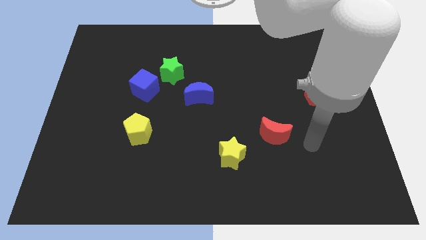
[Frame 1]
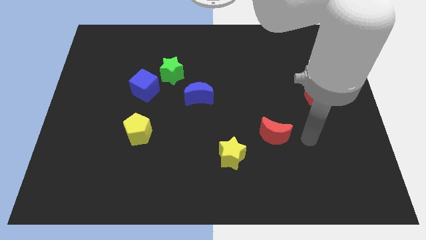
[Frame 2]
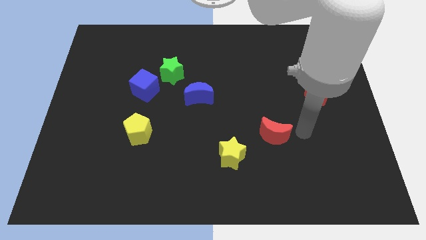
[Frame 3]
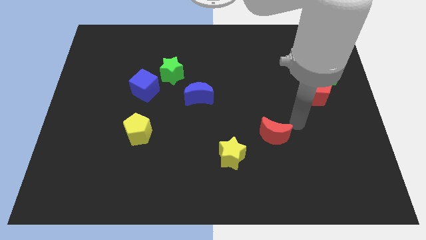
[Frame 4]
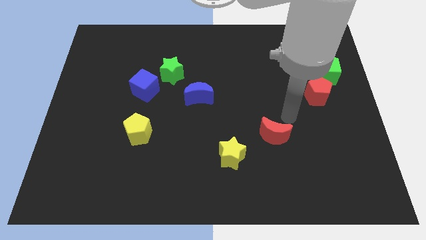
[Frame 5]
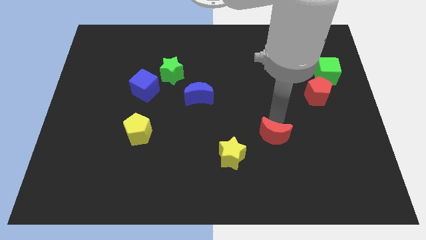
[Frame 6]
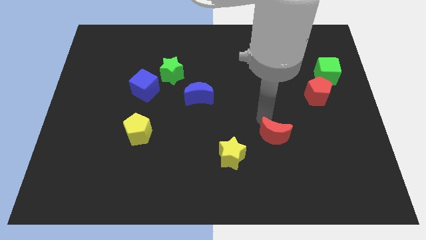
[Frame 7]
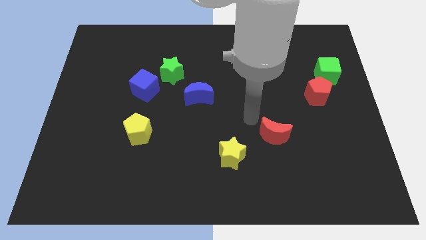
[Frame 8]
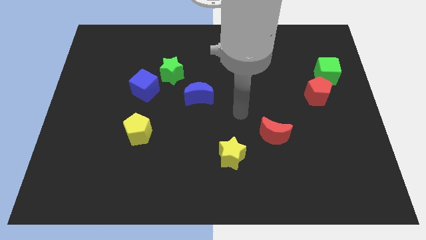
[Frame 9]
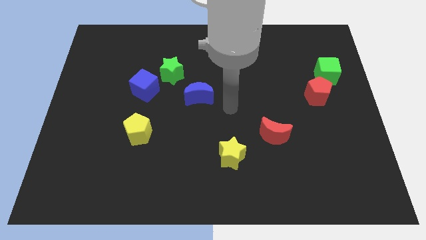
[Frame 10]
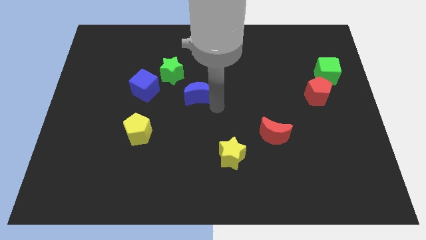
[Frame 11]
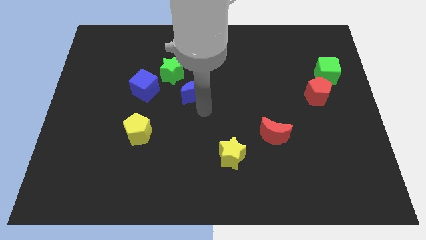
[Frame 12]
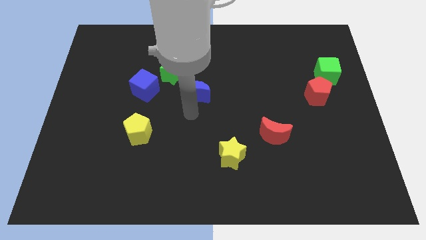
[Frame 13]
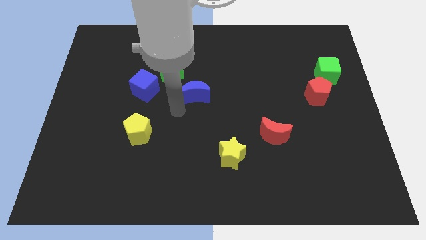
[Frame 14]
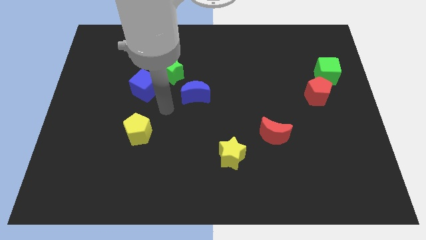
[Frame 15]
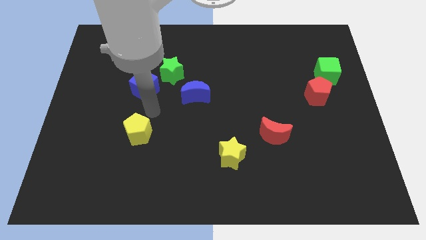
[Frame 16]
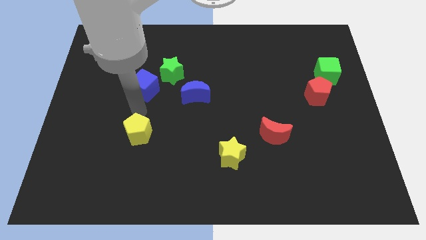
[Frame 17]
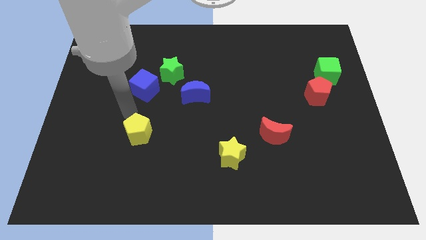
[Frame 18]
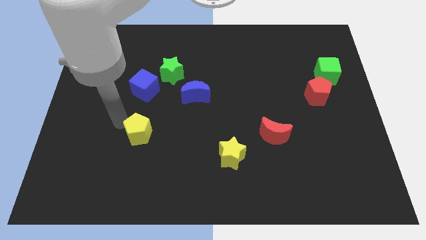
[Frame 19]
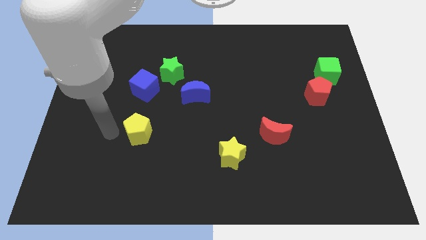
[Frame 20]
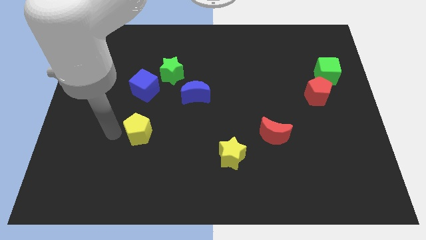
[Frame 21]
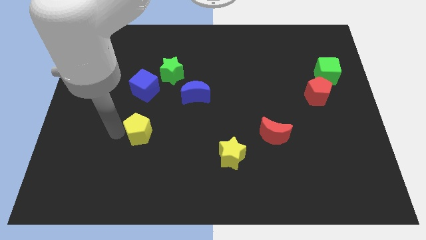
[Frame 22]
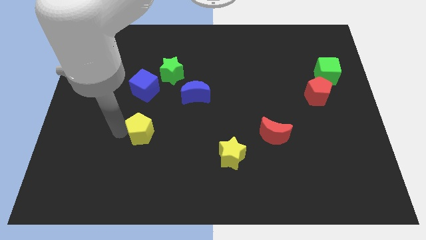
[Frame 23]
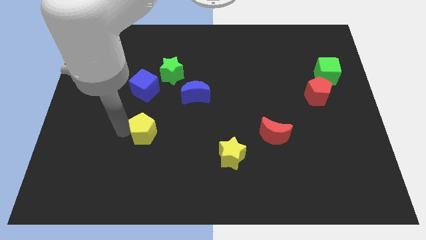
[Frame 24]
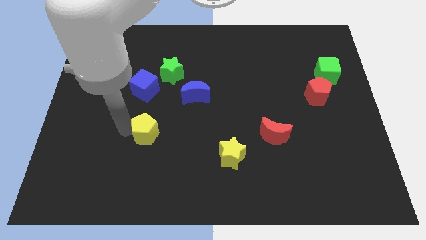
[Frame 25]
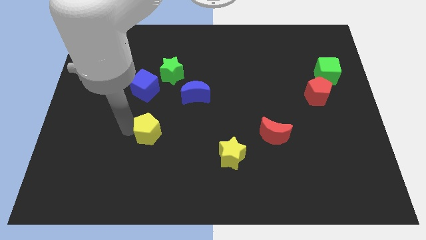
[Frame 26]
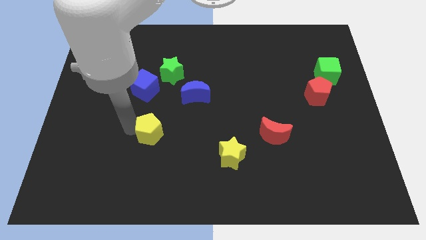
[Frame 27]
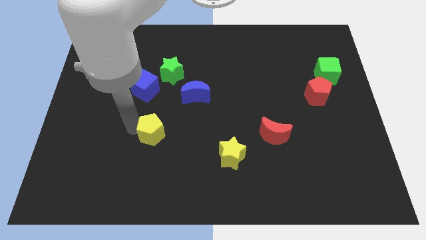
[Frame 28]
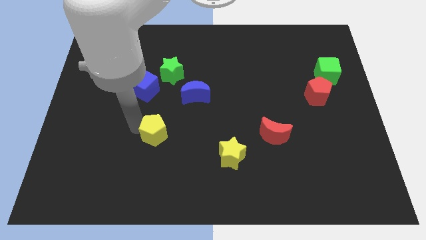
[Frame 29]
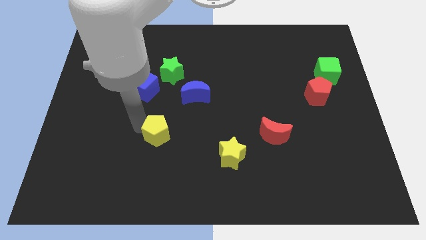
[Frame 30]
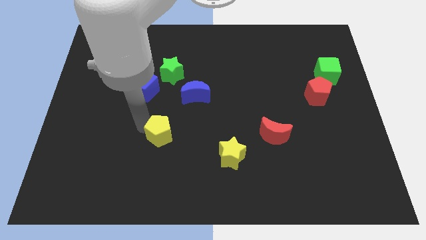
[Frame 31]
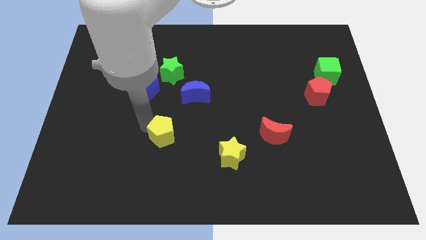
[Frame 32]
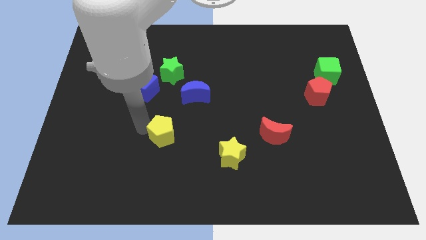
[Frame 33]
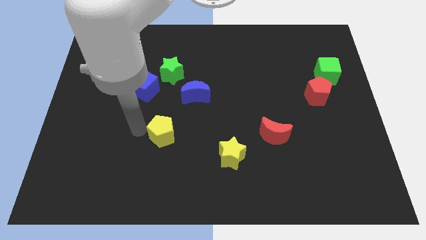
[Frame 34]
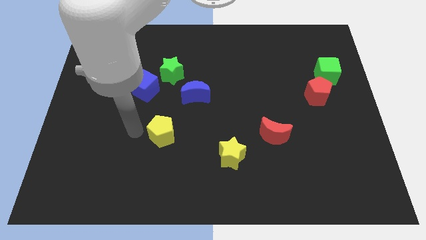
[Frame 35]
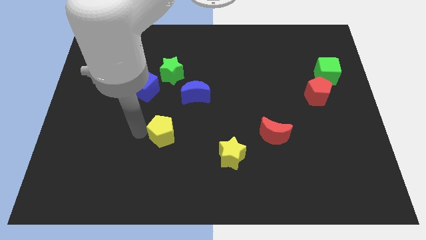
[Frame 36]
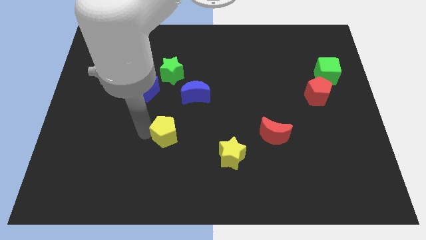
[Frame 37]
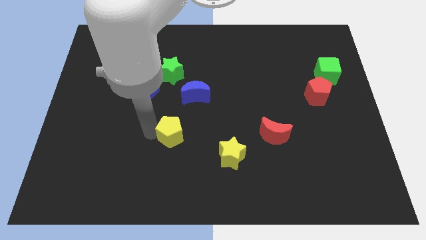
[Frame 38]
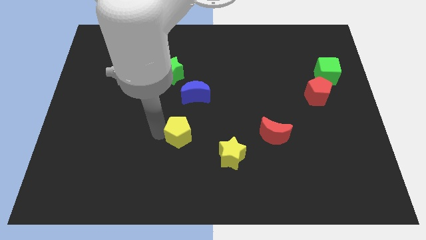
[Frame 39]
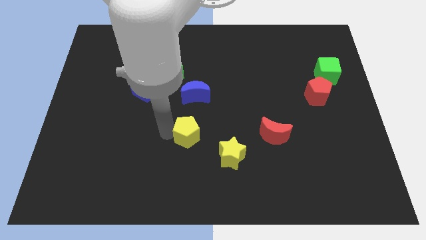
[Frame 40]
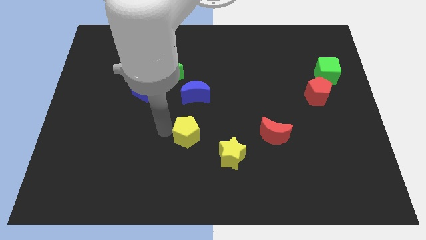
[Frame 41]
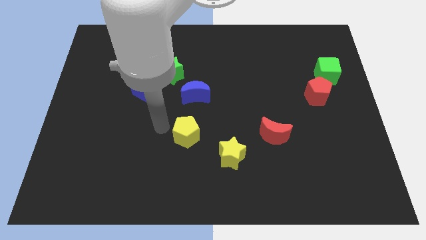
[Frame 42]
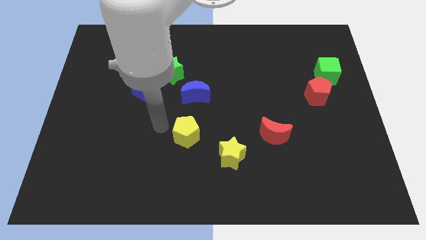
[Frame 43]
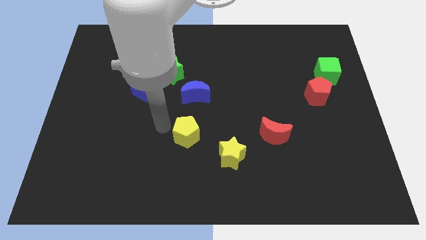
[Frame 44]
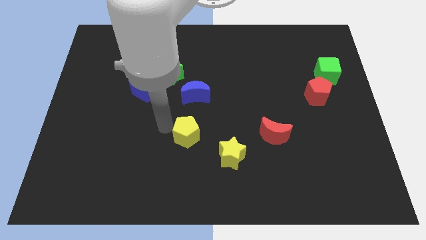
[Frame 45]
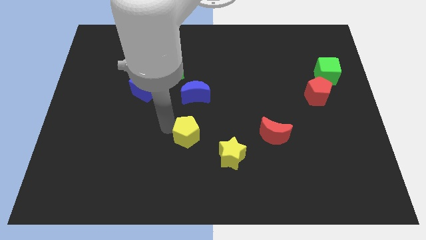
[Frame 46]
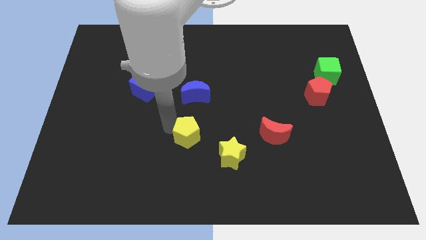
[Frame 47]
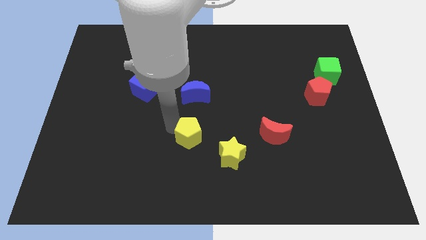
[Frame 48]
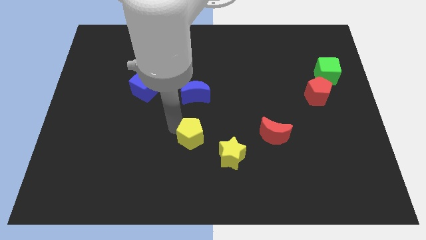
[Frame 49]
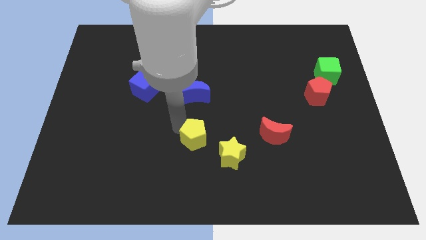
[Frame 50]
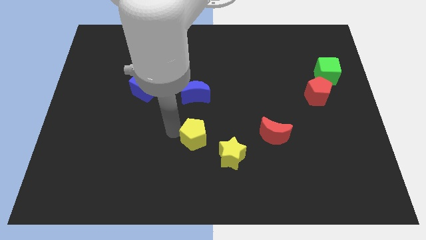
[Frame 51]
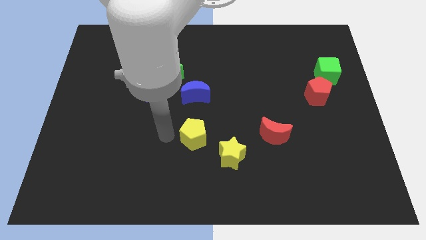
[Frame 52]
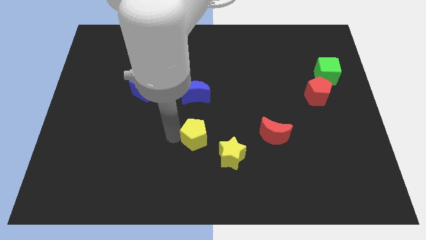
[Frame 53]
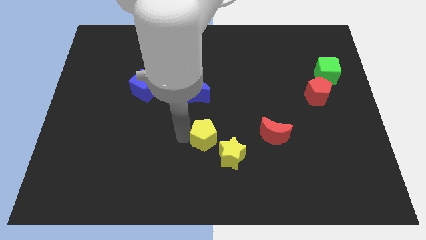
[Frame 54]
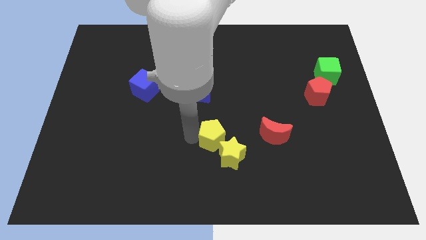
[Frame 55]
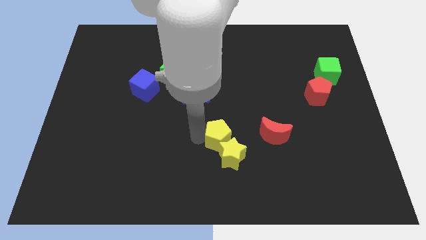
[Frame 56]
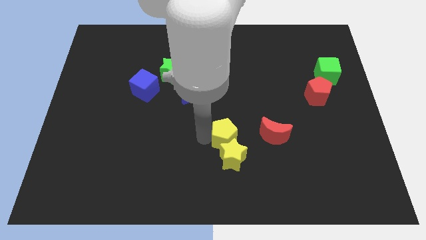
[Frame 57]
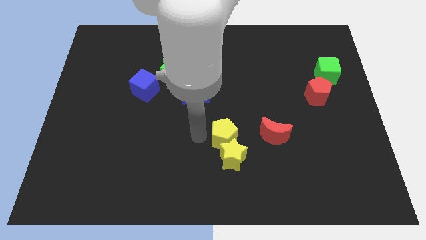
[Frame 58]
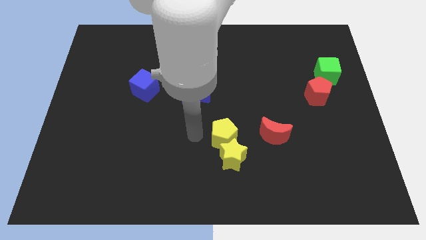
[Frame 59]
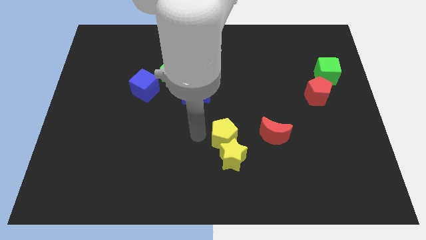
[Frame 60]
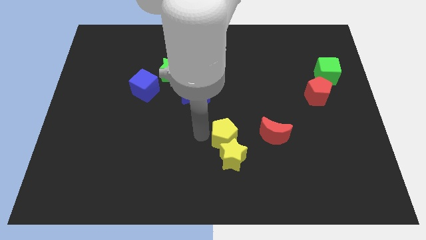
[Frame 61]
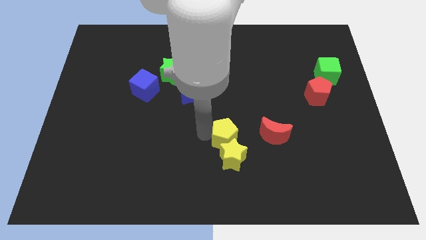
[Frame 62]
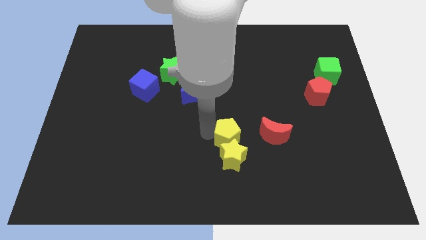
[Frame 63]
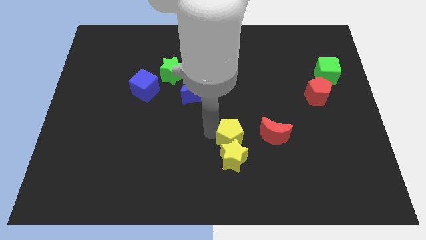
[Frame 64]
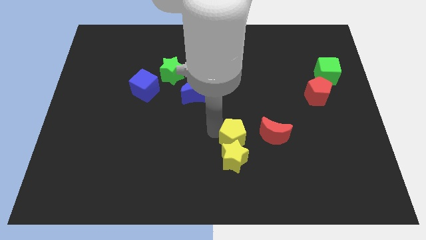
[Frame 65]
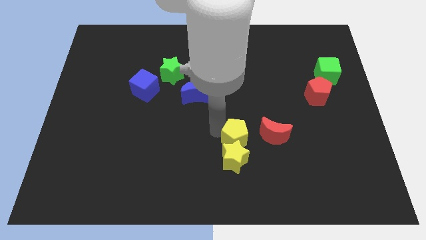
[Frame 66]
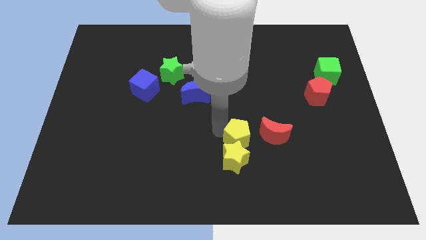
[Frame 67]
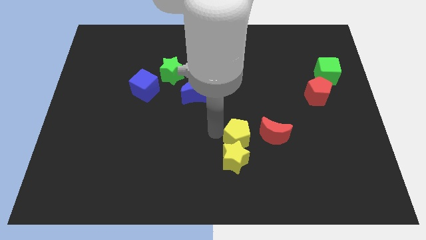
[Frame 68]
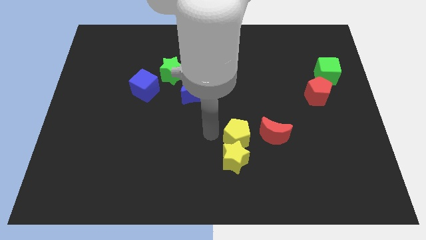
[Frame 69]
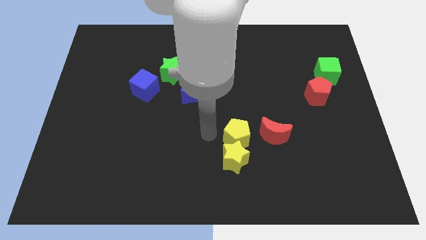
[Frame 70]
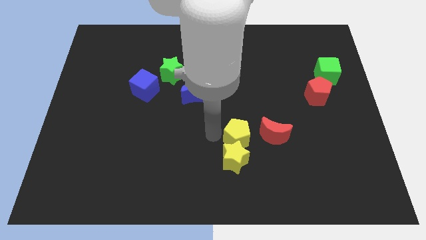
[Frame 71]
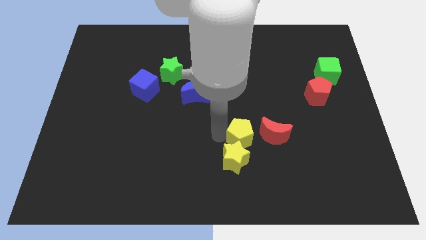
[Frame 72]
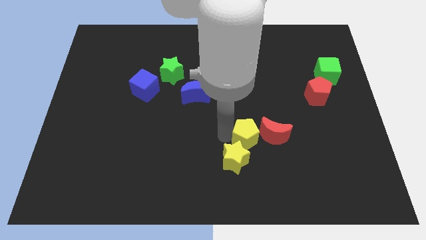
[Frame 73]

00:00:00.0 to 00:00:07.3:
put the yellow pentagon close to the red moon

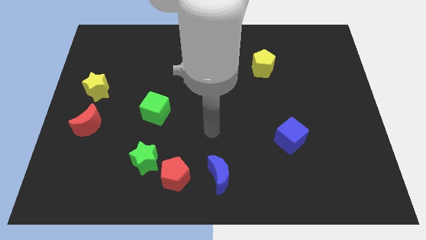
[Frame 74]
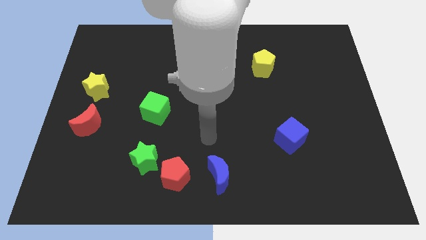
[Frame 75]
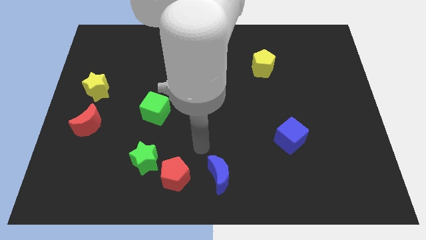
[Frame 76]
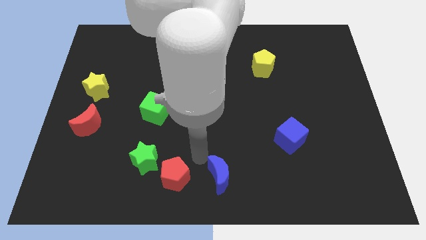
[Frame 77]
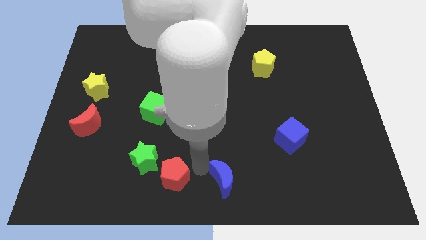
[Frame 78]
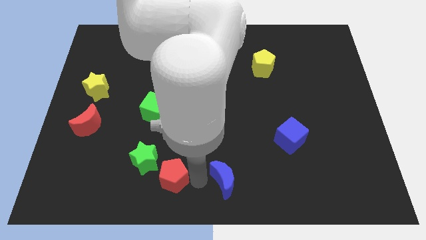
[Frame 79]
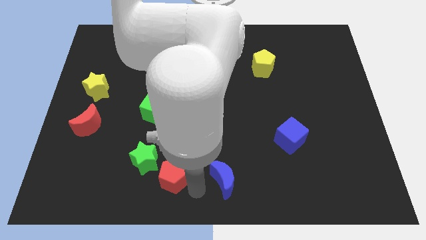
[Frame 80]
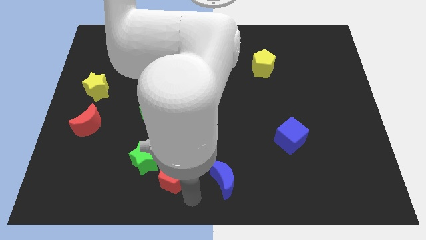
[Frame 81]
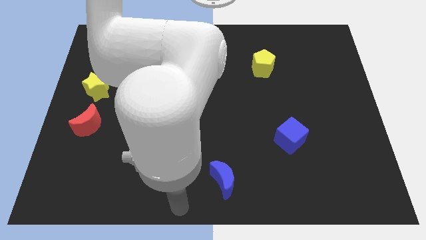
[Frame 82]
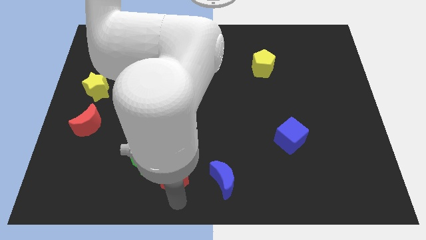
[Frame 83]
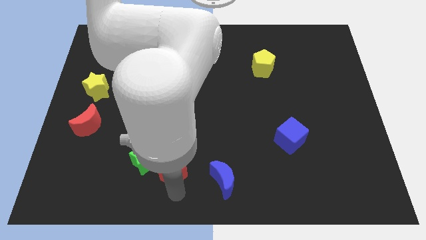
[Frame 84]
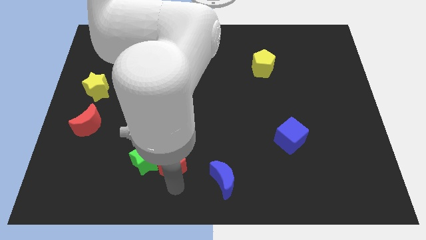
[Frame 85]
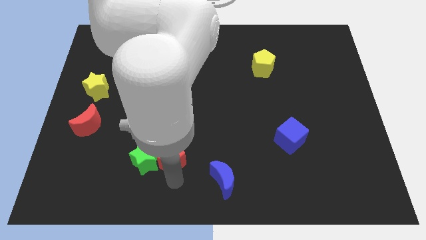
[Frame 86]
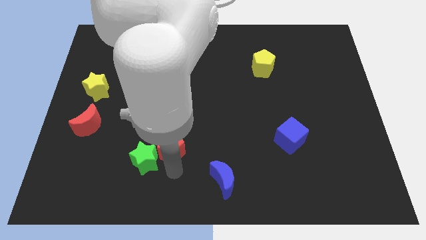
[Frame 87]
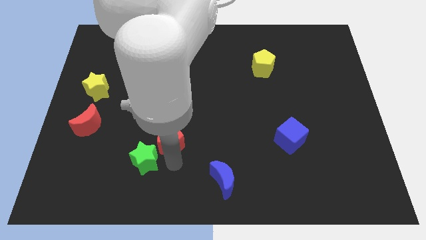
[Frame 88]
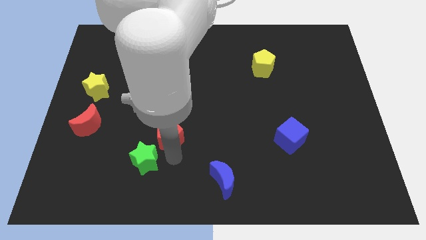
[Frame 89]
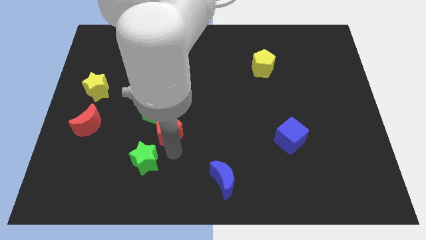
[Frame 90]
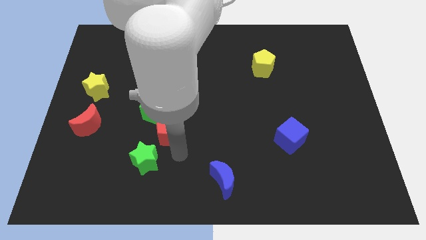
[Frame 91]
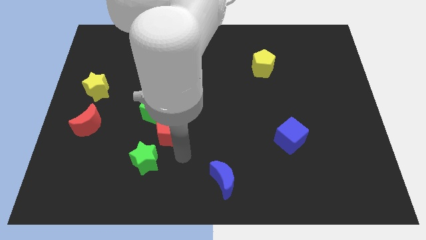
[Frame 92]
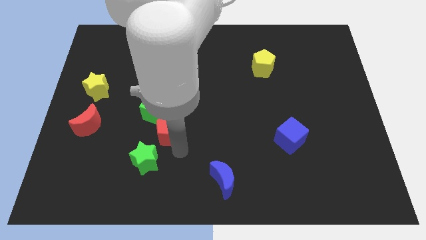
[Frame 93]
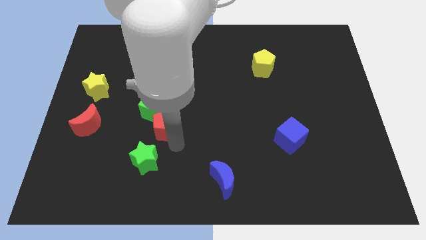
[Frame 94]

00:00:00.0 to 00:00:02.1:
push the red pentagon close to the green cube
